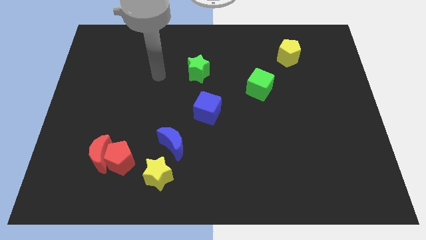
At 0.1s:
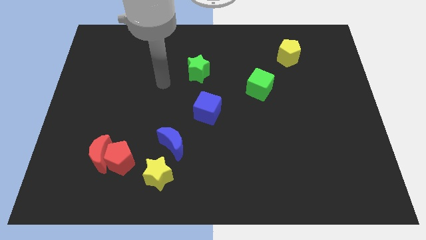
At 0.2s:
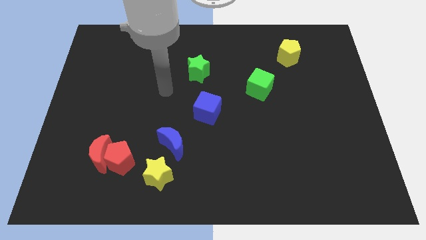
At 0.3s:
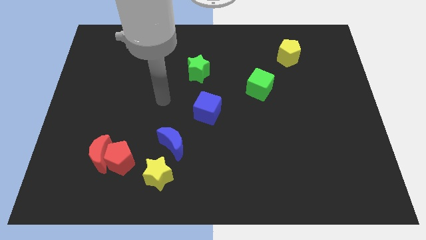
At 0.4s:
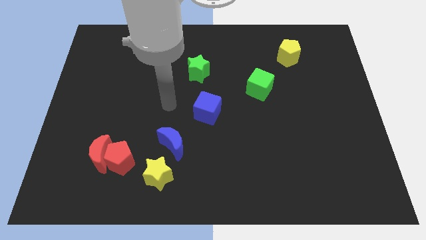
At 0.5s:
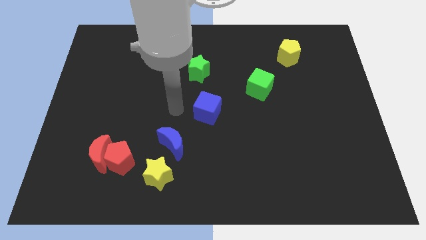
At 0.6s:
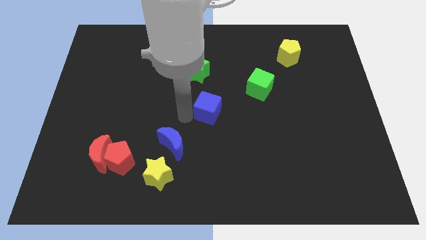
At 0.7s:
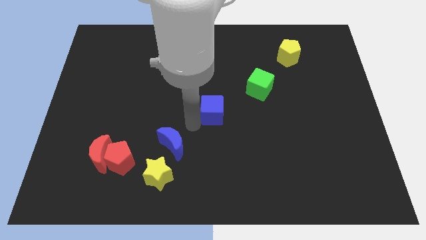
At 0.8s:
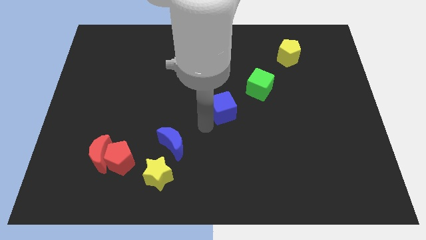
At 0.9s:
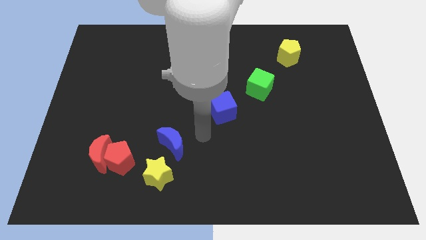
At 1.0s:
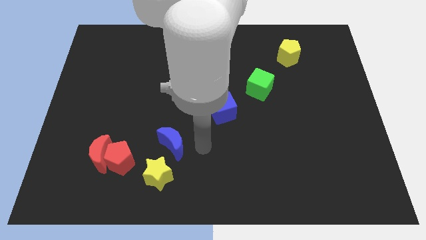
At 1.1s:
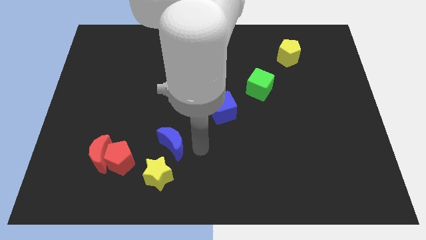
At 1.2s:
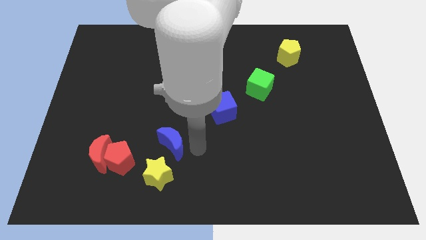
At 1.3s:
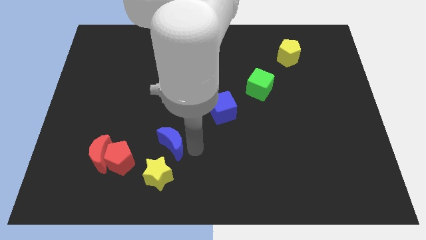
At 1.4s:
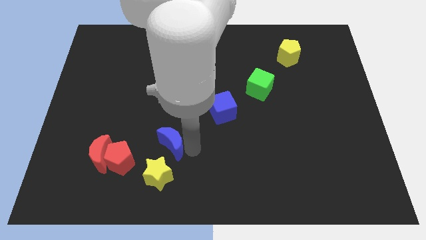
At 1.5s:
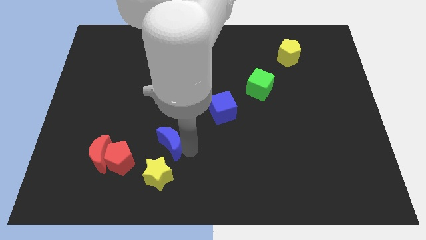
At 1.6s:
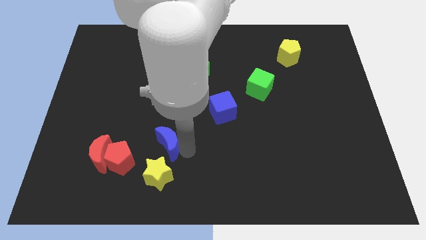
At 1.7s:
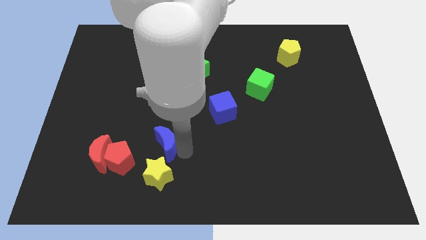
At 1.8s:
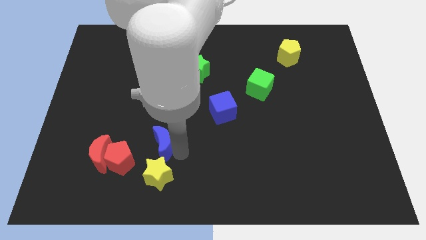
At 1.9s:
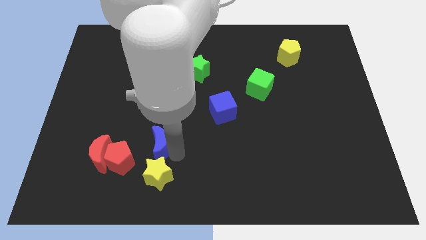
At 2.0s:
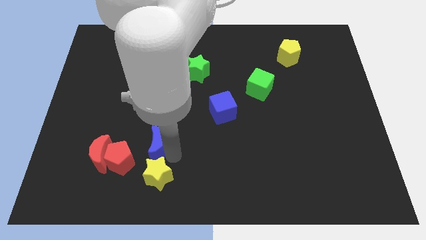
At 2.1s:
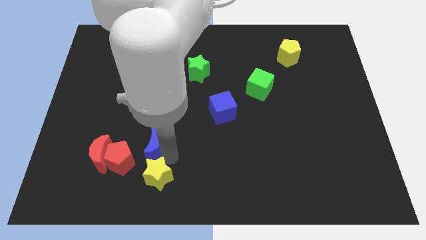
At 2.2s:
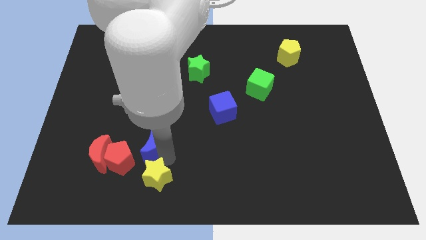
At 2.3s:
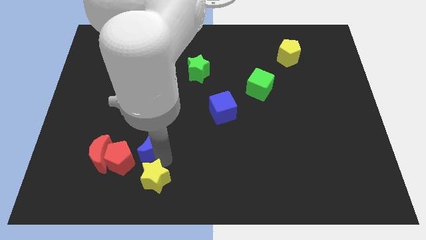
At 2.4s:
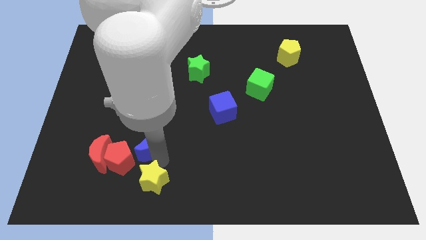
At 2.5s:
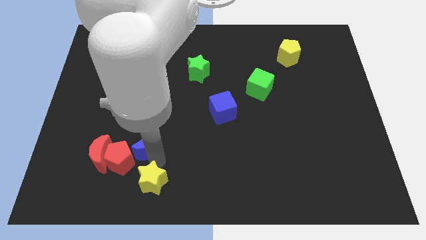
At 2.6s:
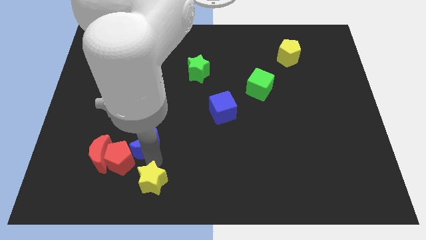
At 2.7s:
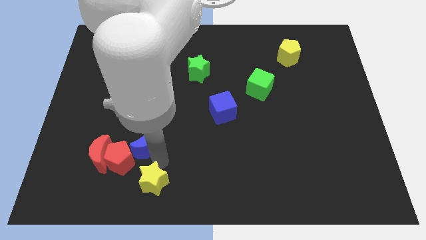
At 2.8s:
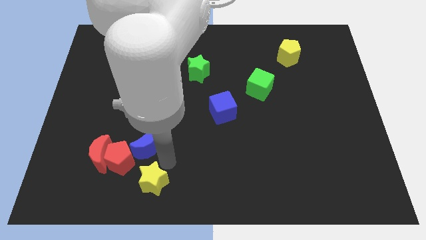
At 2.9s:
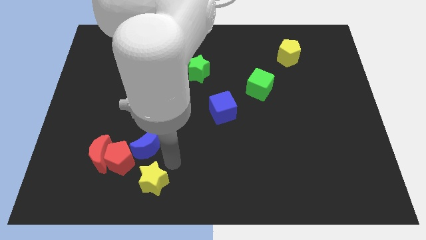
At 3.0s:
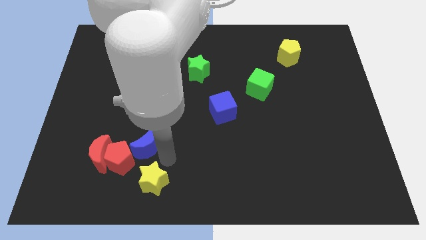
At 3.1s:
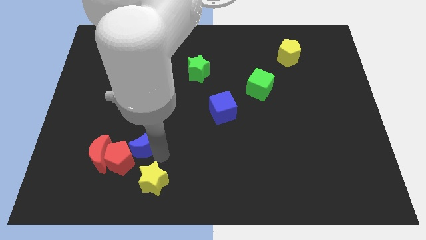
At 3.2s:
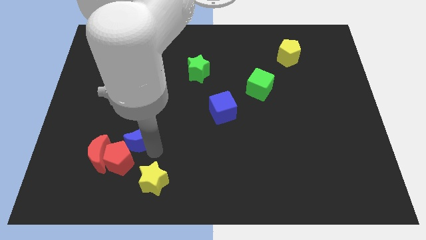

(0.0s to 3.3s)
push the blue moon left a bit

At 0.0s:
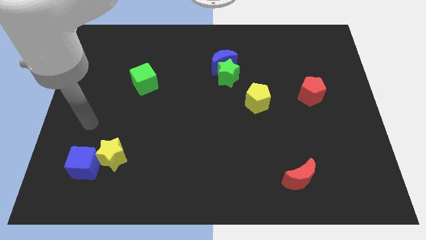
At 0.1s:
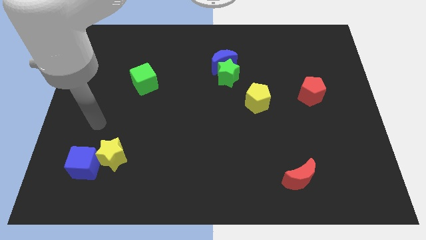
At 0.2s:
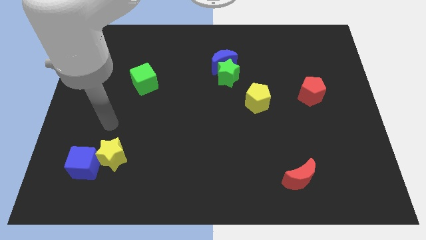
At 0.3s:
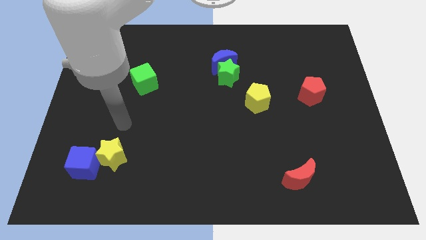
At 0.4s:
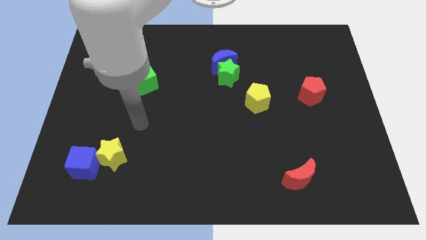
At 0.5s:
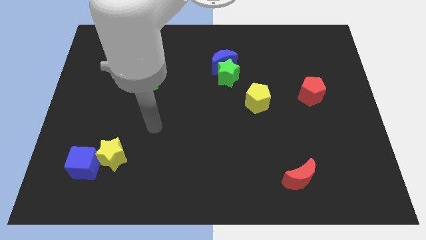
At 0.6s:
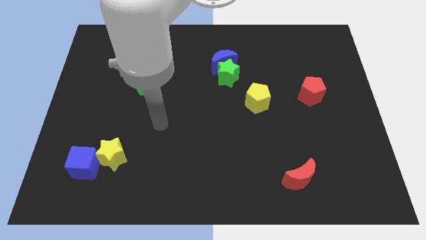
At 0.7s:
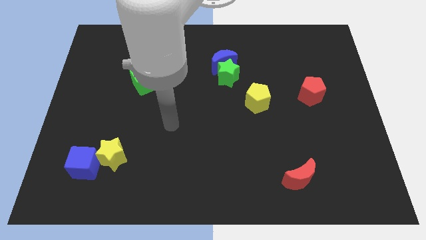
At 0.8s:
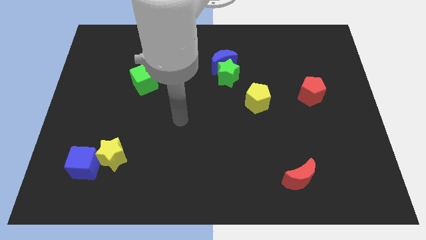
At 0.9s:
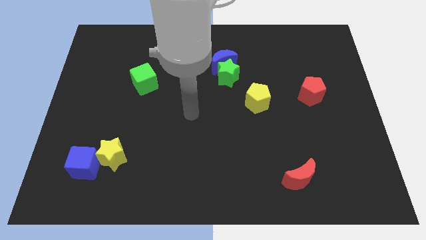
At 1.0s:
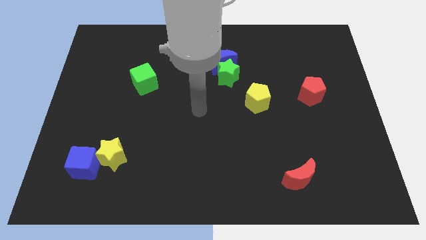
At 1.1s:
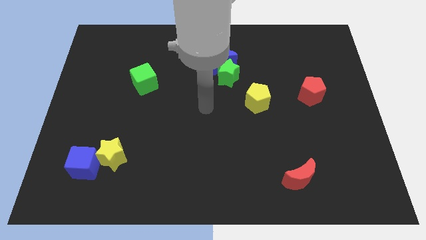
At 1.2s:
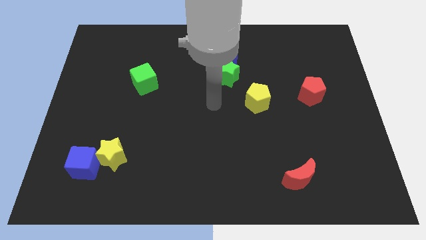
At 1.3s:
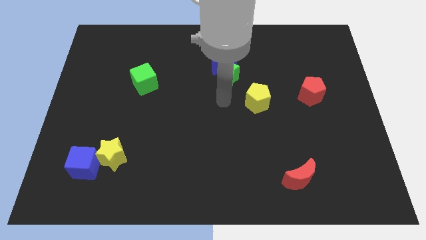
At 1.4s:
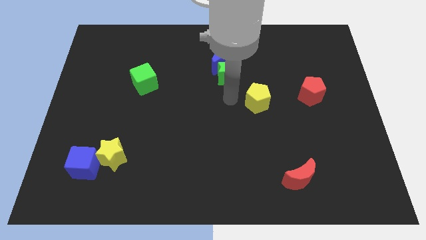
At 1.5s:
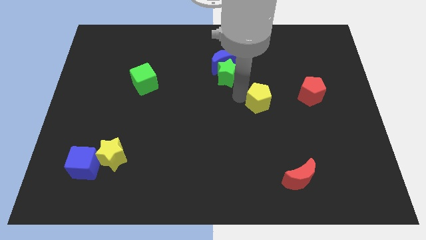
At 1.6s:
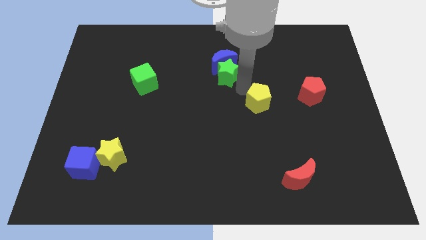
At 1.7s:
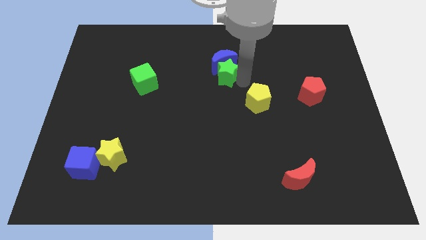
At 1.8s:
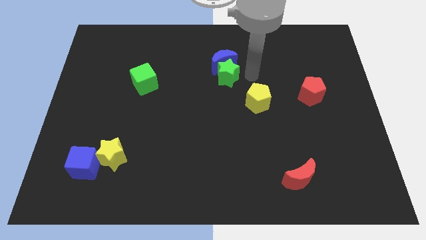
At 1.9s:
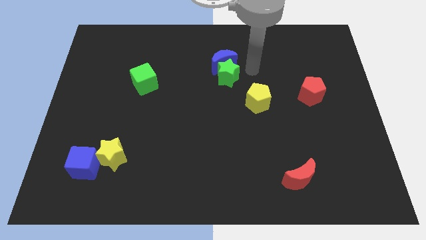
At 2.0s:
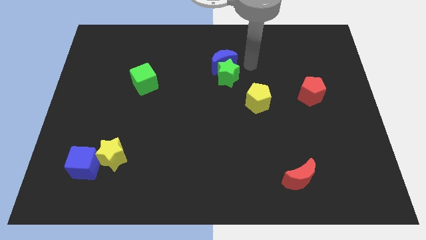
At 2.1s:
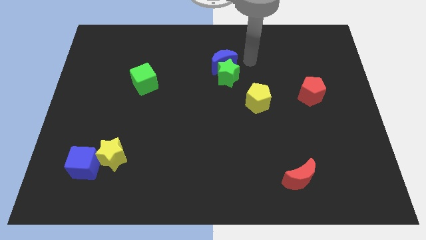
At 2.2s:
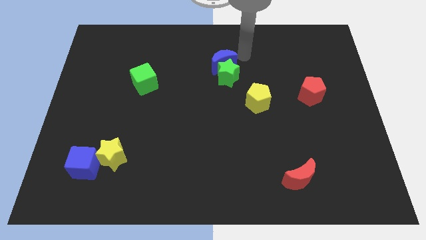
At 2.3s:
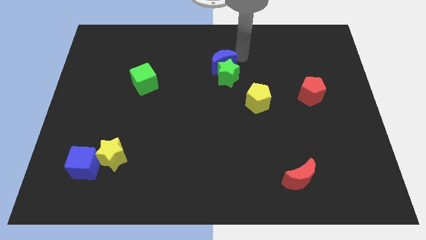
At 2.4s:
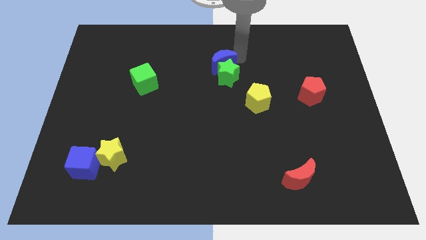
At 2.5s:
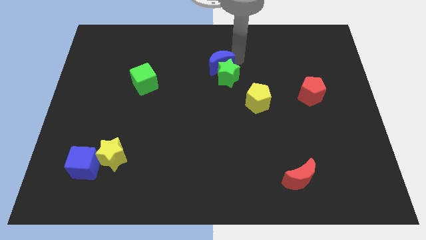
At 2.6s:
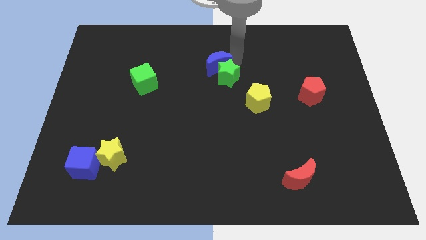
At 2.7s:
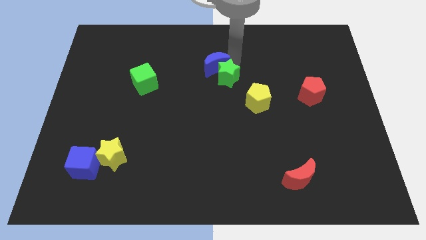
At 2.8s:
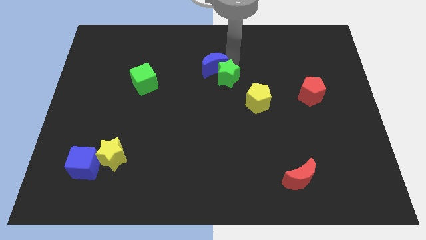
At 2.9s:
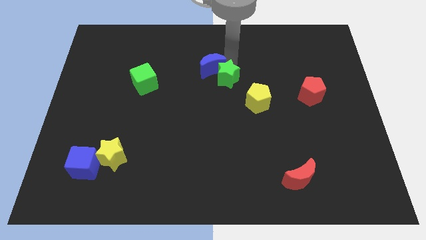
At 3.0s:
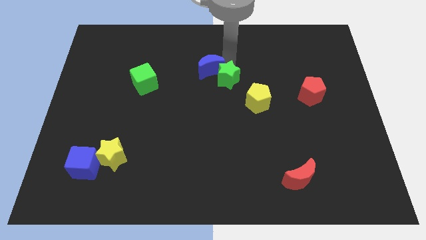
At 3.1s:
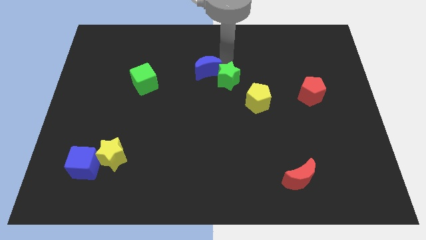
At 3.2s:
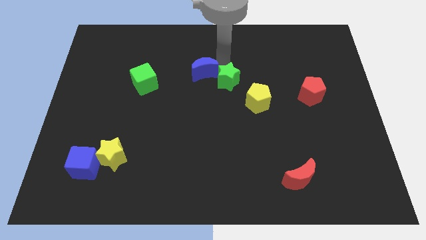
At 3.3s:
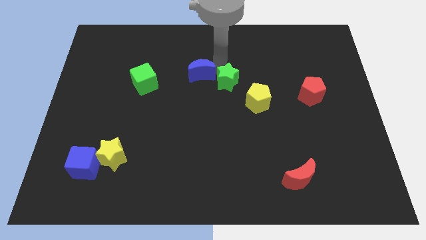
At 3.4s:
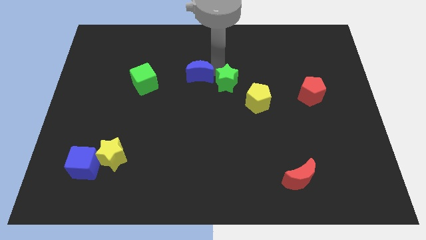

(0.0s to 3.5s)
move the blue moon slightly down and to the left

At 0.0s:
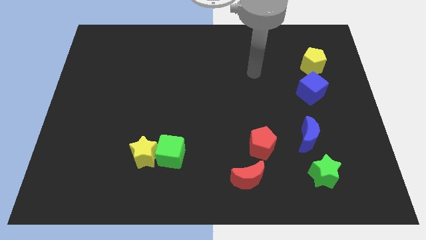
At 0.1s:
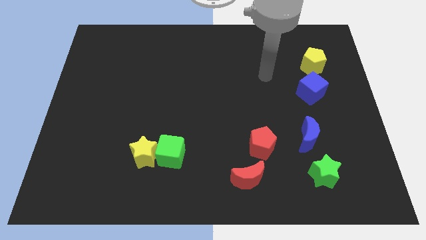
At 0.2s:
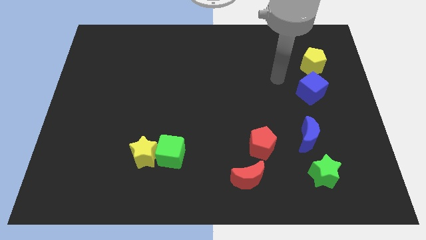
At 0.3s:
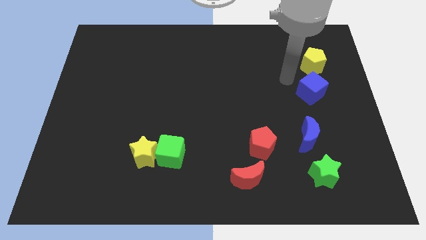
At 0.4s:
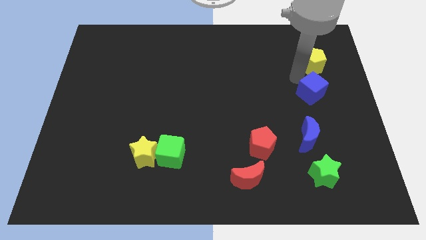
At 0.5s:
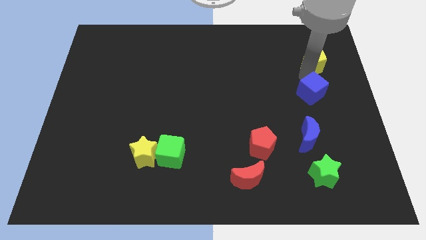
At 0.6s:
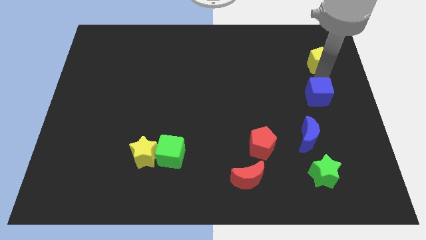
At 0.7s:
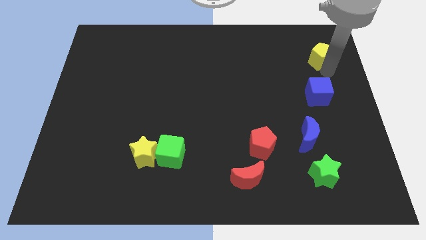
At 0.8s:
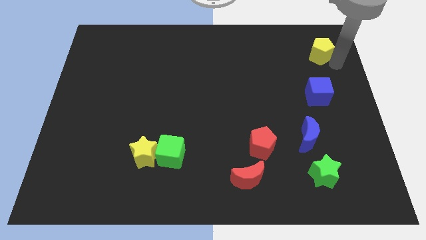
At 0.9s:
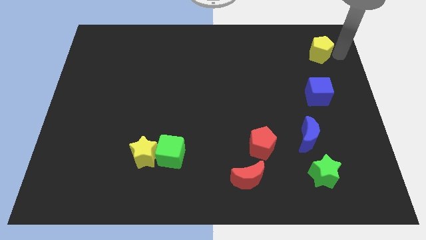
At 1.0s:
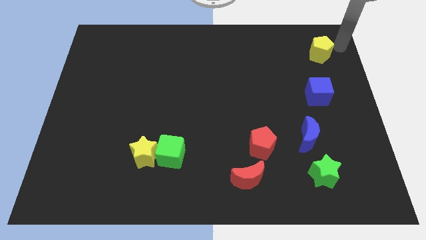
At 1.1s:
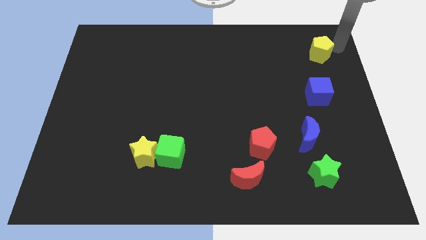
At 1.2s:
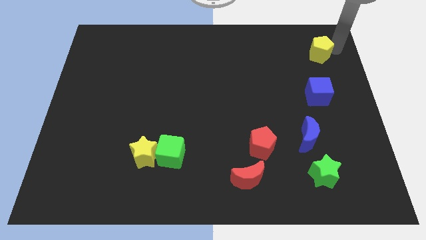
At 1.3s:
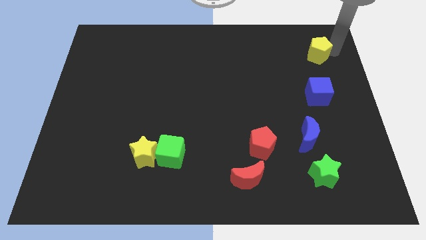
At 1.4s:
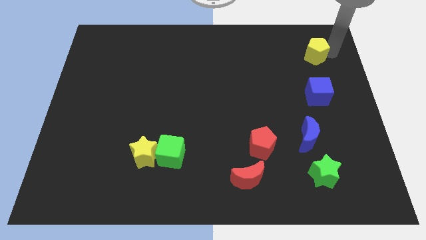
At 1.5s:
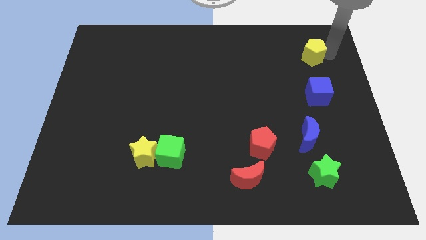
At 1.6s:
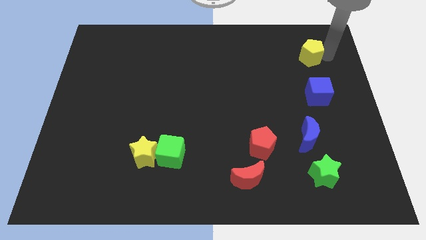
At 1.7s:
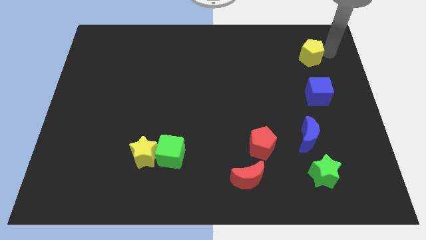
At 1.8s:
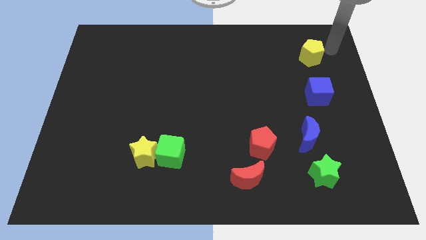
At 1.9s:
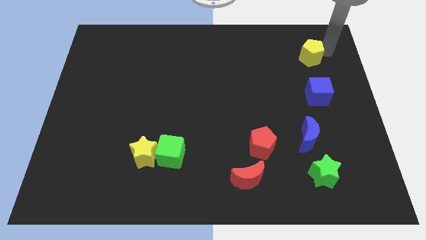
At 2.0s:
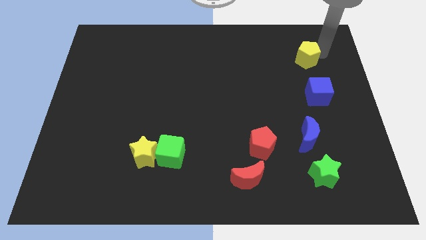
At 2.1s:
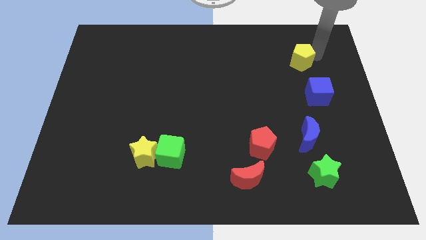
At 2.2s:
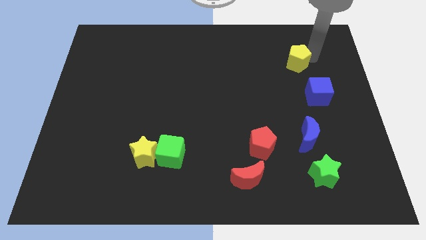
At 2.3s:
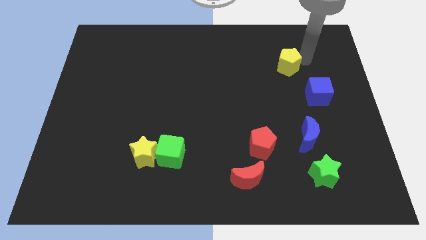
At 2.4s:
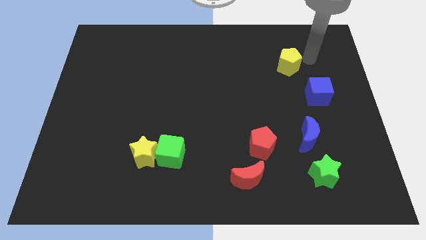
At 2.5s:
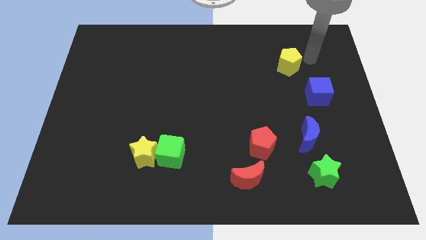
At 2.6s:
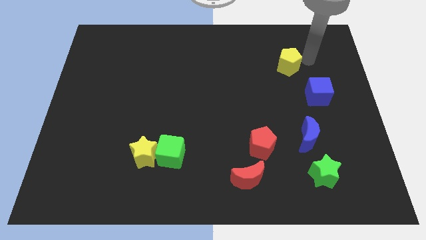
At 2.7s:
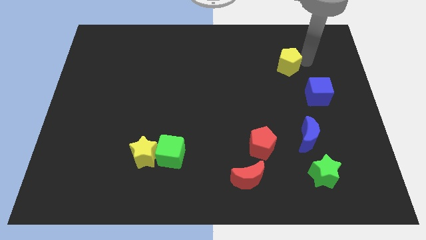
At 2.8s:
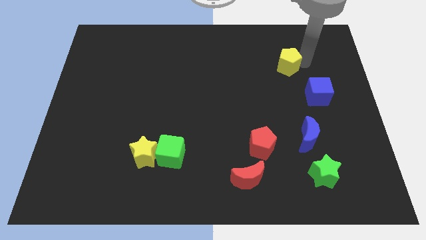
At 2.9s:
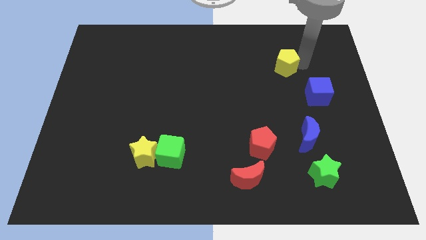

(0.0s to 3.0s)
slide the yellow pentagon a little bit left
